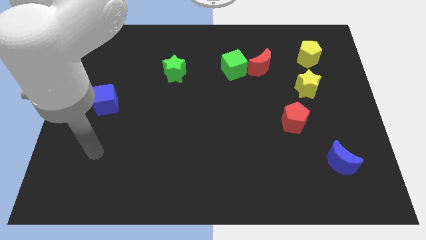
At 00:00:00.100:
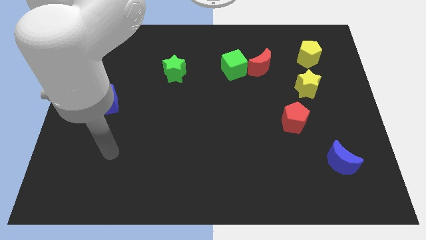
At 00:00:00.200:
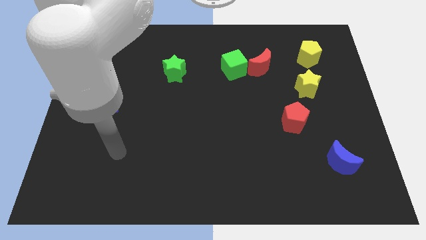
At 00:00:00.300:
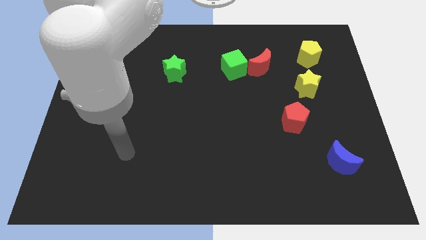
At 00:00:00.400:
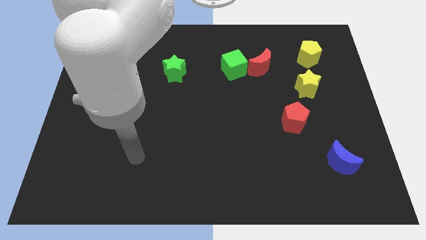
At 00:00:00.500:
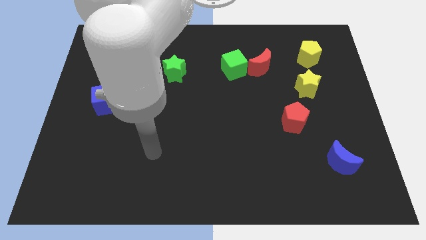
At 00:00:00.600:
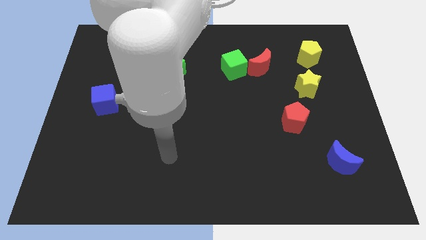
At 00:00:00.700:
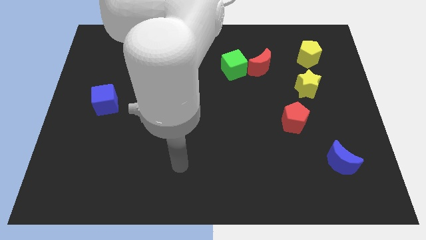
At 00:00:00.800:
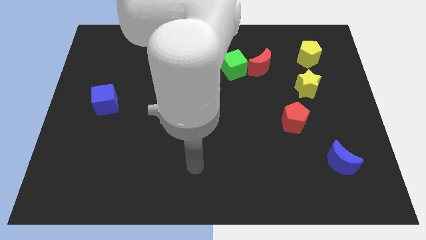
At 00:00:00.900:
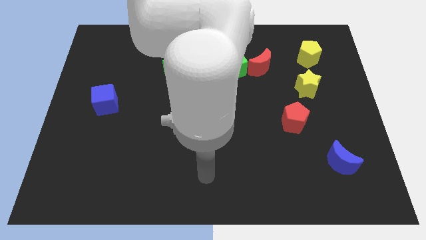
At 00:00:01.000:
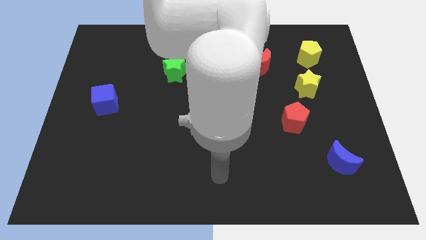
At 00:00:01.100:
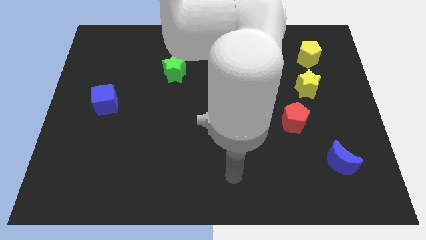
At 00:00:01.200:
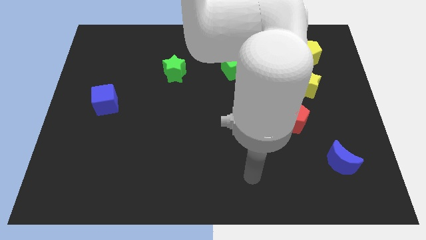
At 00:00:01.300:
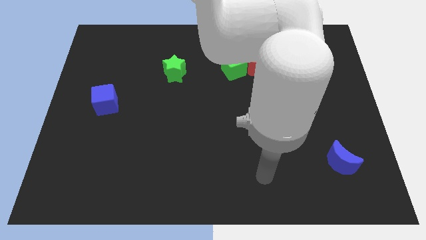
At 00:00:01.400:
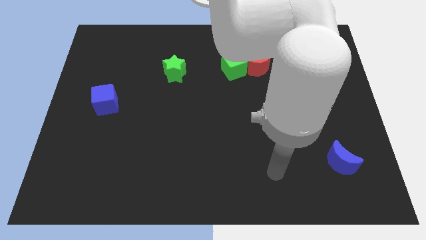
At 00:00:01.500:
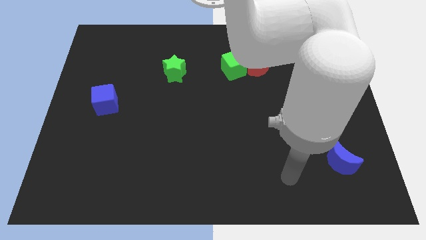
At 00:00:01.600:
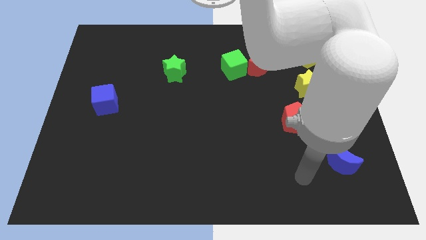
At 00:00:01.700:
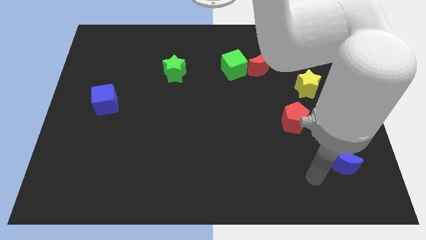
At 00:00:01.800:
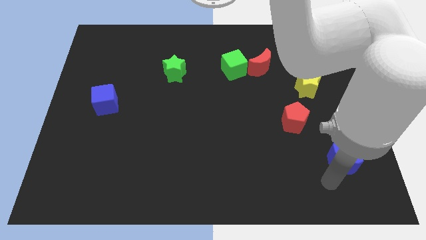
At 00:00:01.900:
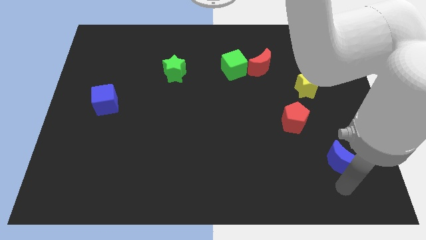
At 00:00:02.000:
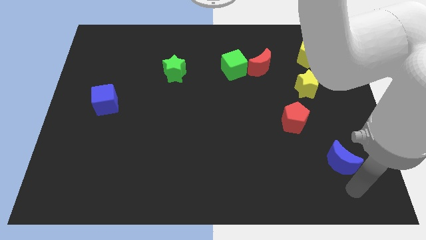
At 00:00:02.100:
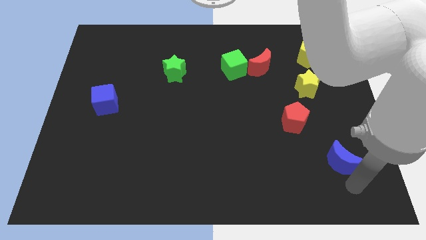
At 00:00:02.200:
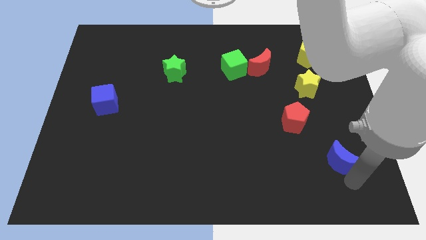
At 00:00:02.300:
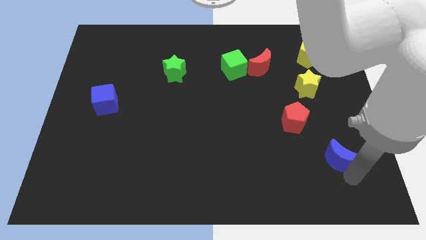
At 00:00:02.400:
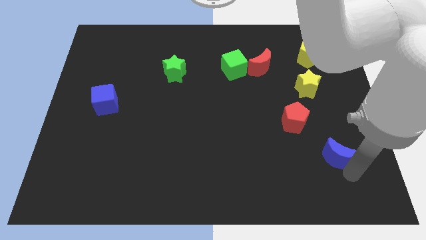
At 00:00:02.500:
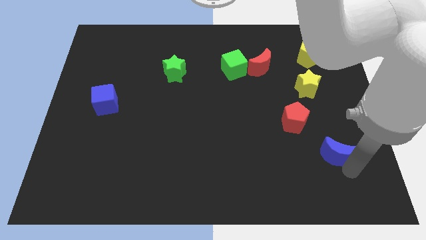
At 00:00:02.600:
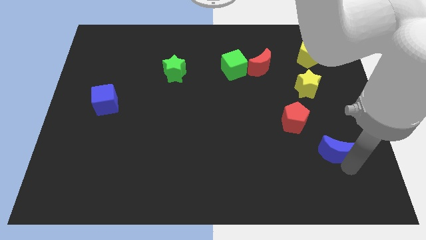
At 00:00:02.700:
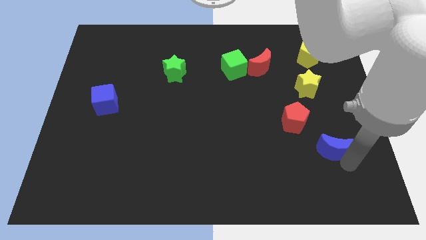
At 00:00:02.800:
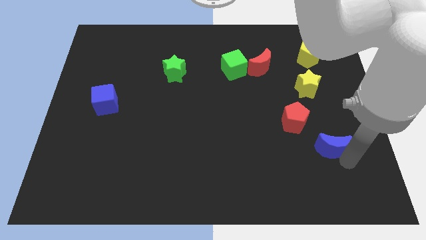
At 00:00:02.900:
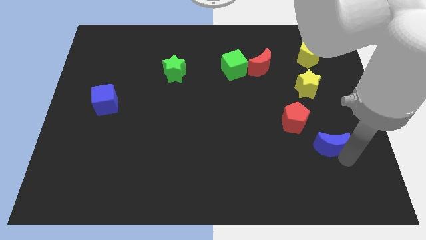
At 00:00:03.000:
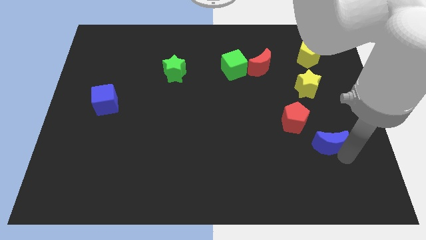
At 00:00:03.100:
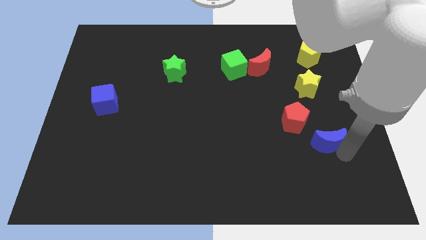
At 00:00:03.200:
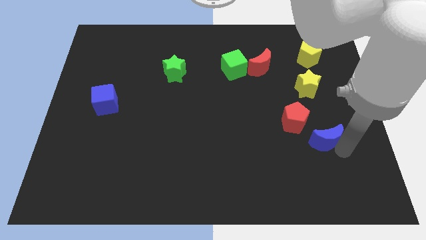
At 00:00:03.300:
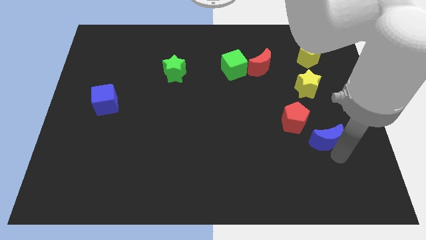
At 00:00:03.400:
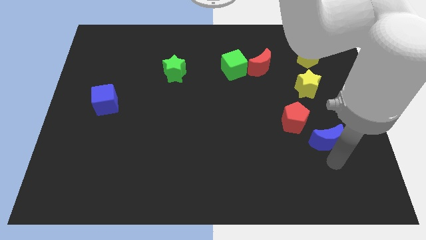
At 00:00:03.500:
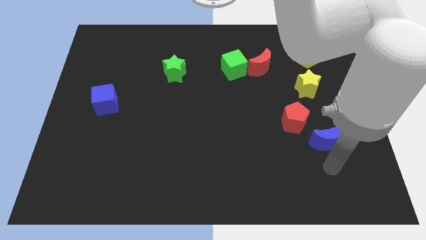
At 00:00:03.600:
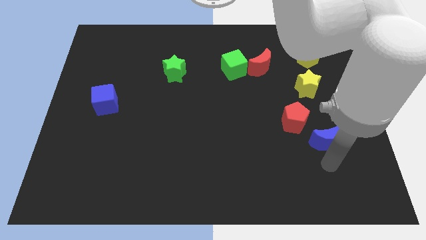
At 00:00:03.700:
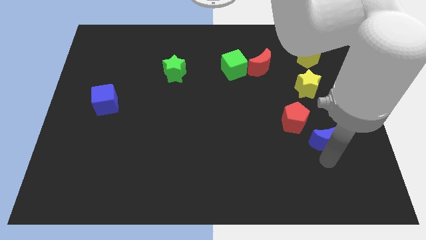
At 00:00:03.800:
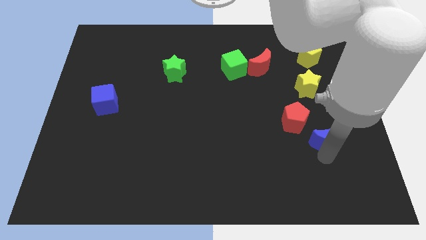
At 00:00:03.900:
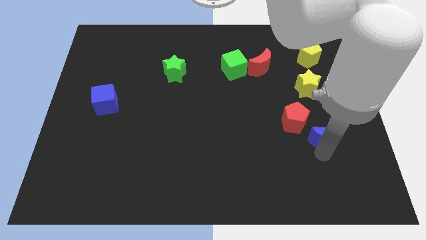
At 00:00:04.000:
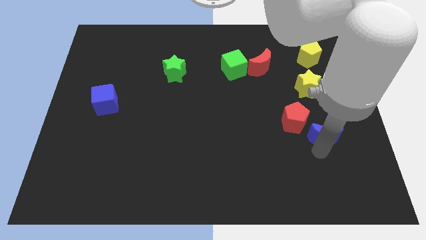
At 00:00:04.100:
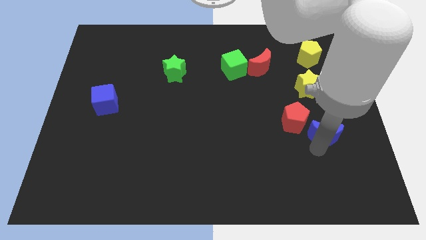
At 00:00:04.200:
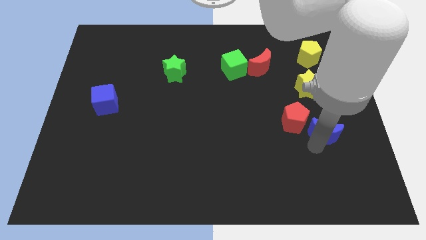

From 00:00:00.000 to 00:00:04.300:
move the blue moon up somewhat

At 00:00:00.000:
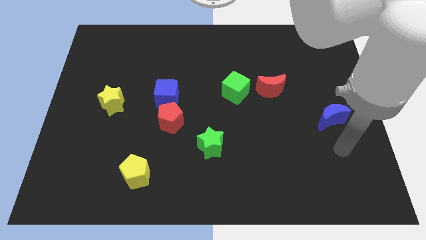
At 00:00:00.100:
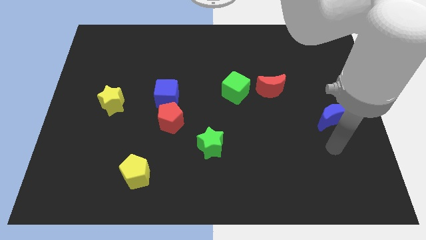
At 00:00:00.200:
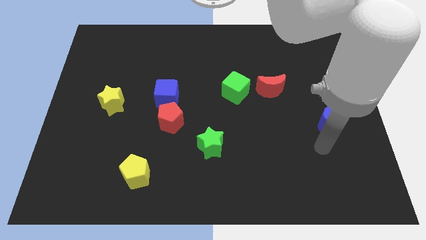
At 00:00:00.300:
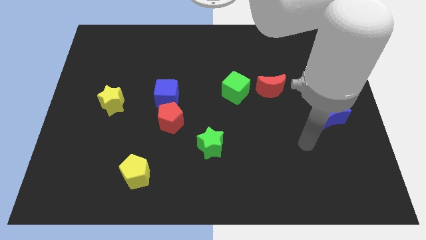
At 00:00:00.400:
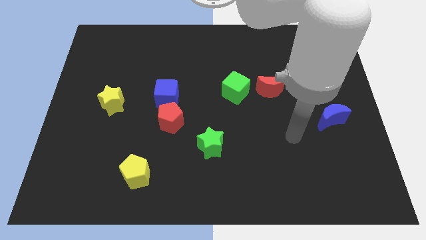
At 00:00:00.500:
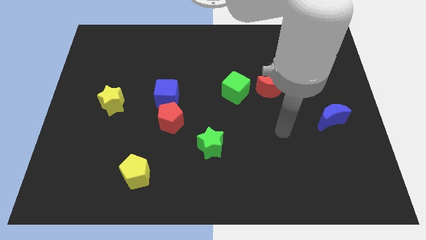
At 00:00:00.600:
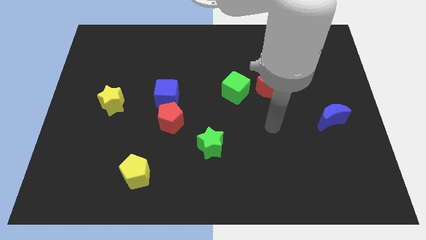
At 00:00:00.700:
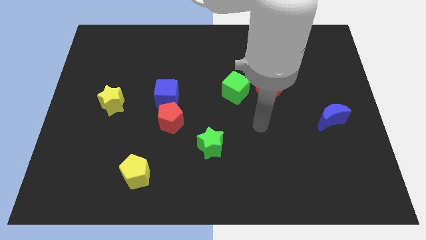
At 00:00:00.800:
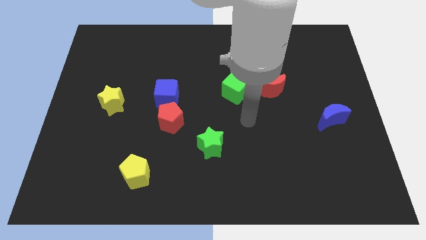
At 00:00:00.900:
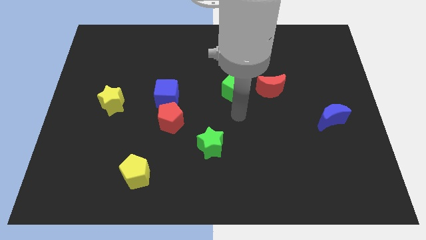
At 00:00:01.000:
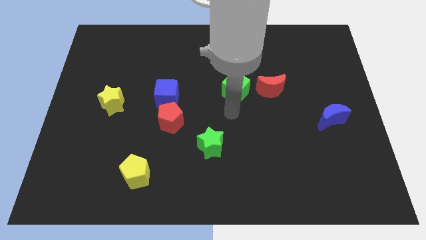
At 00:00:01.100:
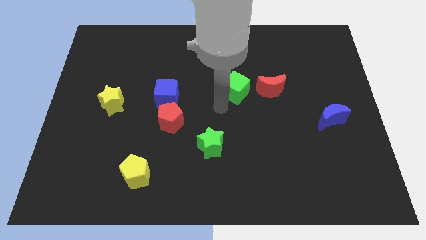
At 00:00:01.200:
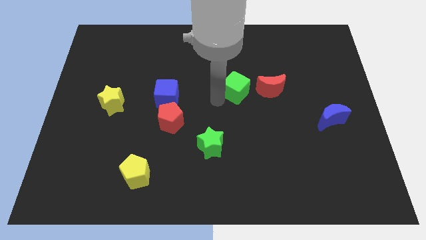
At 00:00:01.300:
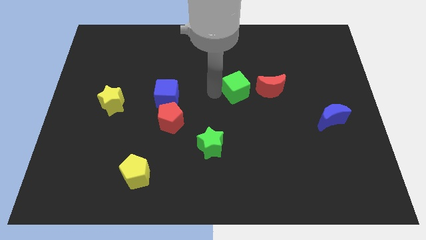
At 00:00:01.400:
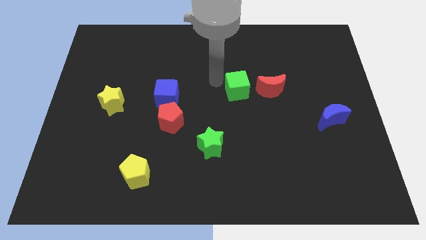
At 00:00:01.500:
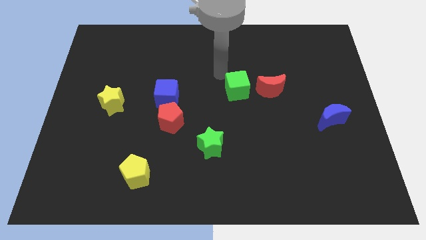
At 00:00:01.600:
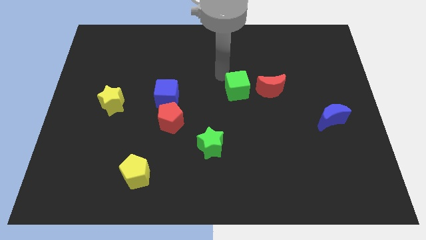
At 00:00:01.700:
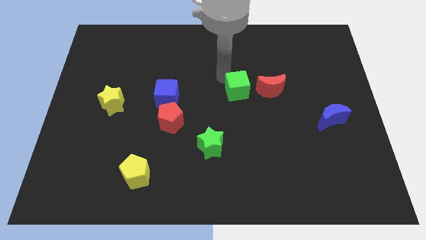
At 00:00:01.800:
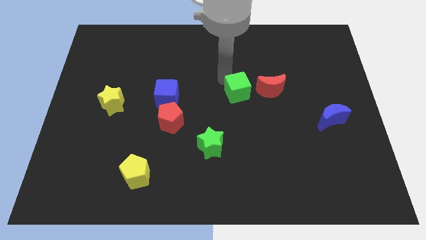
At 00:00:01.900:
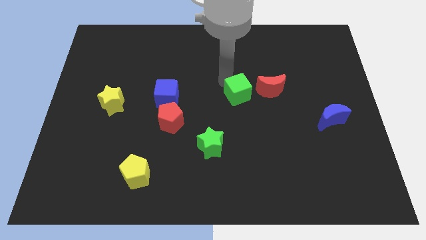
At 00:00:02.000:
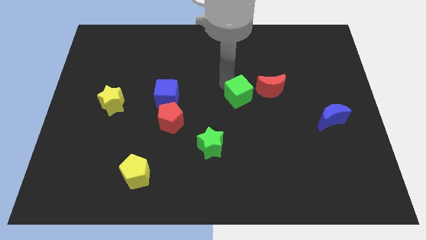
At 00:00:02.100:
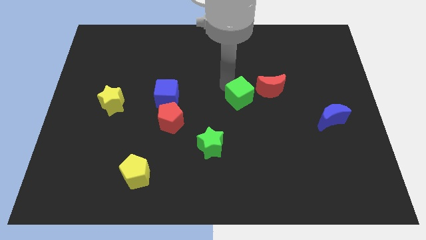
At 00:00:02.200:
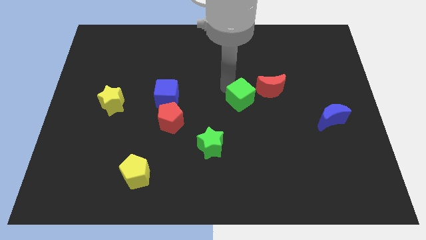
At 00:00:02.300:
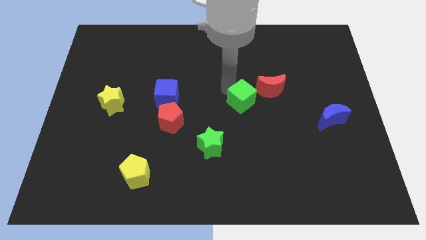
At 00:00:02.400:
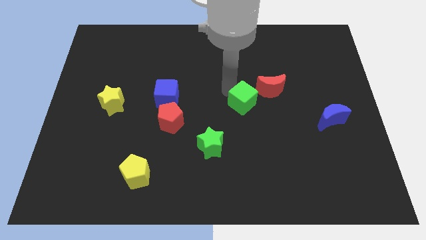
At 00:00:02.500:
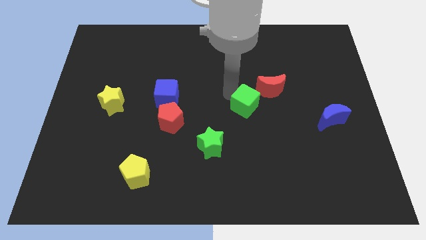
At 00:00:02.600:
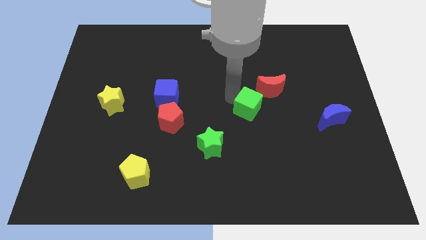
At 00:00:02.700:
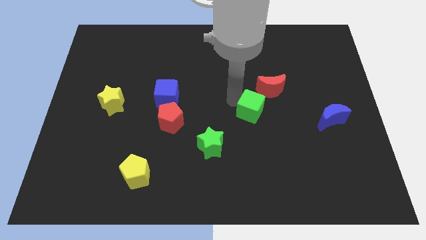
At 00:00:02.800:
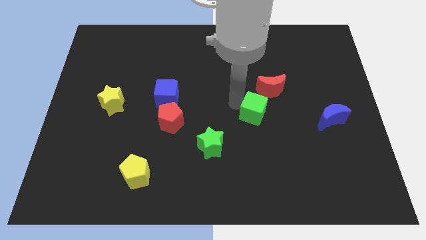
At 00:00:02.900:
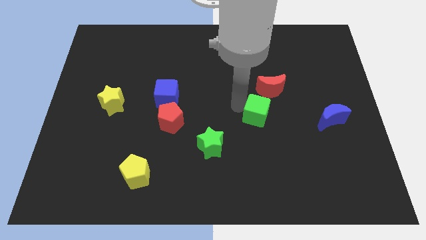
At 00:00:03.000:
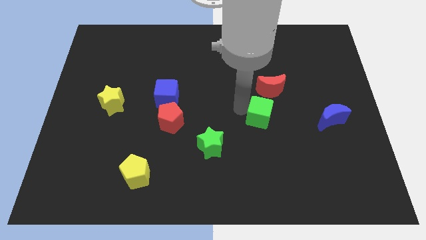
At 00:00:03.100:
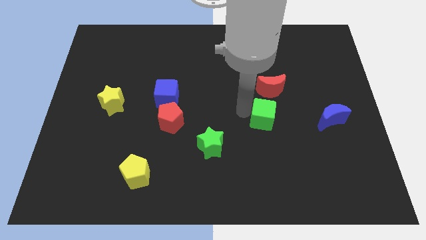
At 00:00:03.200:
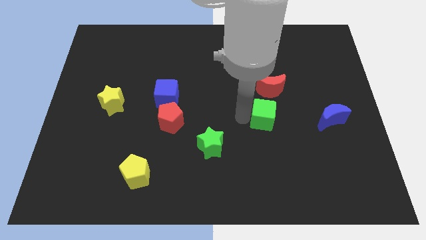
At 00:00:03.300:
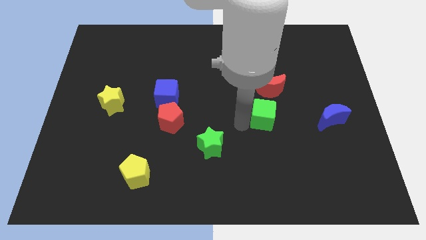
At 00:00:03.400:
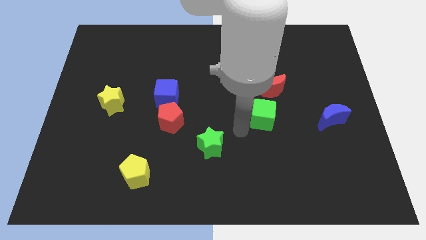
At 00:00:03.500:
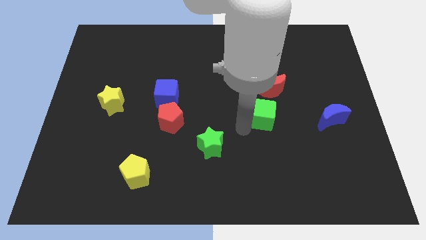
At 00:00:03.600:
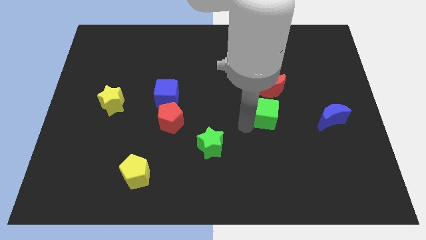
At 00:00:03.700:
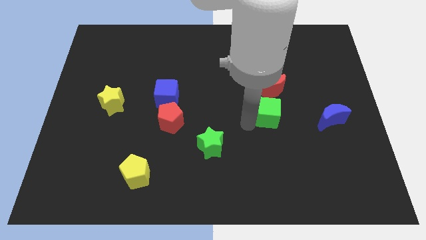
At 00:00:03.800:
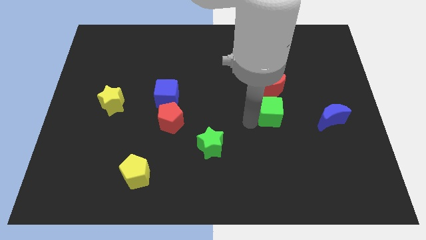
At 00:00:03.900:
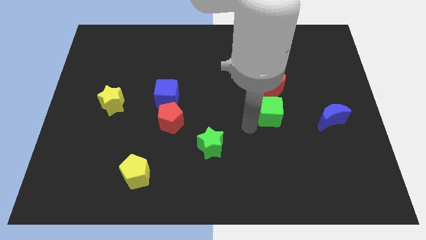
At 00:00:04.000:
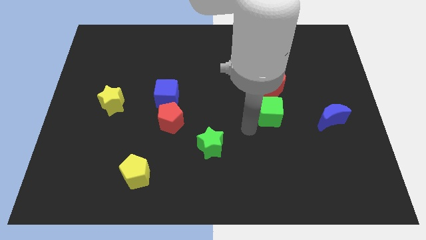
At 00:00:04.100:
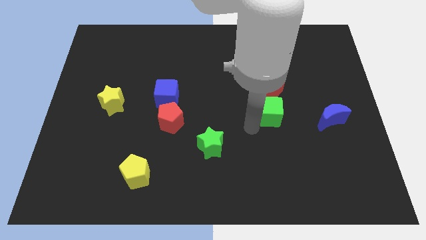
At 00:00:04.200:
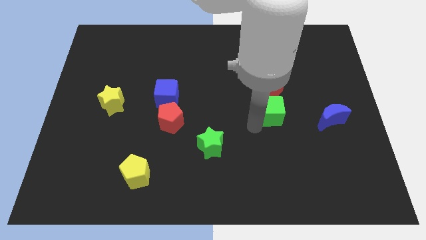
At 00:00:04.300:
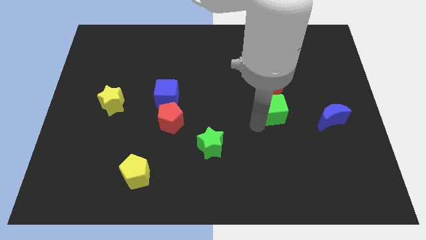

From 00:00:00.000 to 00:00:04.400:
slightly slide the green cube right
